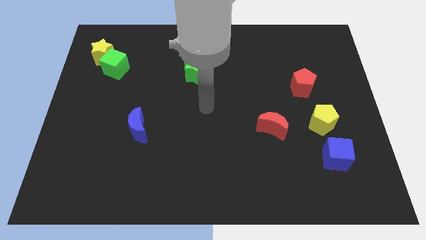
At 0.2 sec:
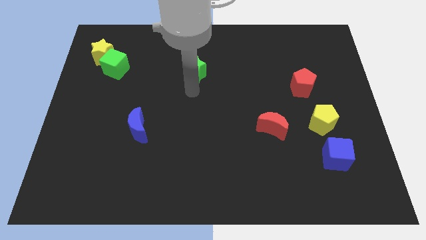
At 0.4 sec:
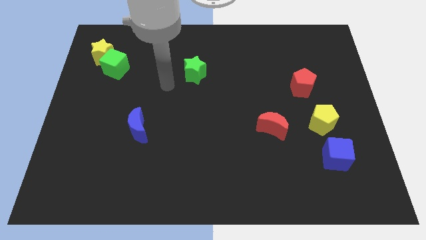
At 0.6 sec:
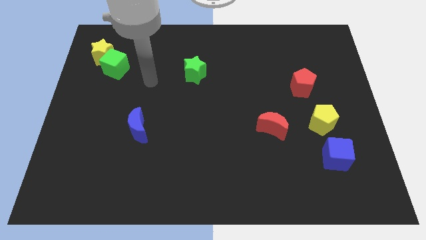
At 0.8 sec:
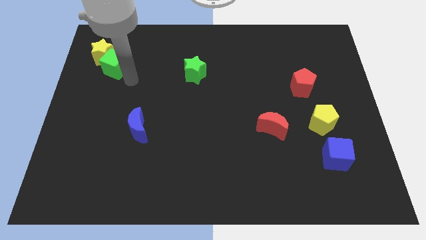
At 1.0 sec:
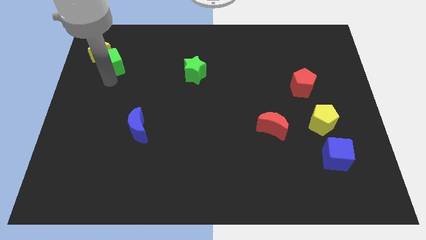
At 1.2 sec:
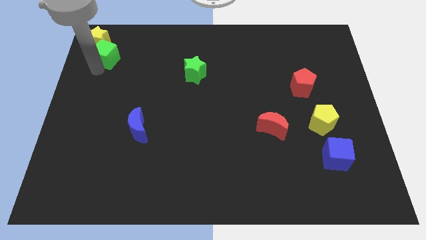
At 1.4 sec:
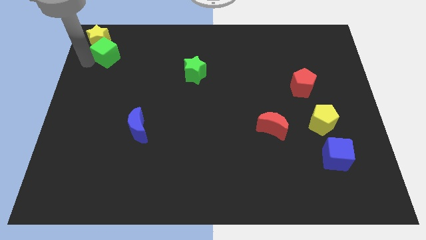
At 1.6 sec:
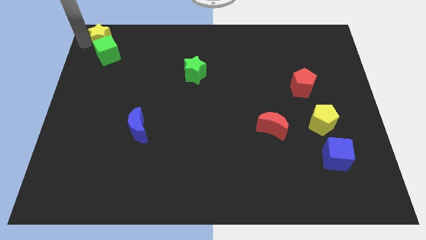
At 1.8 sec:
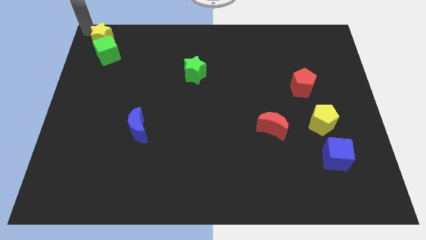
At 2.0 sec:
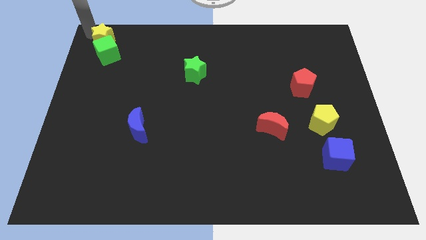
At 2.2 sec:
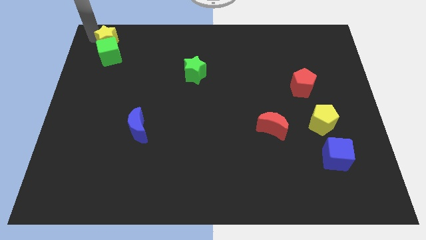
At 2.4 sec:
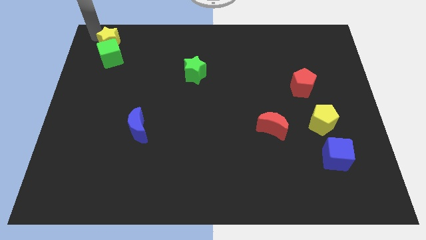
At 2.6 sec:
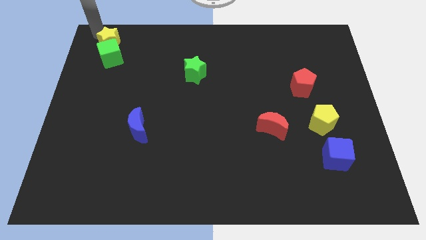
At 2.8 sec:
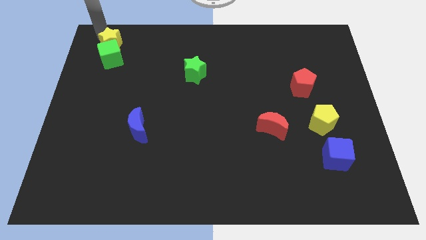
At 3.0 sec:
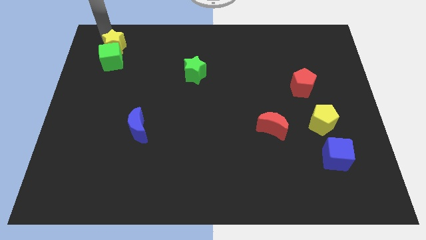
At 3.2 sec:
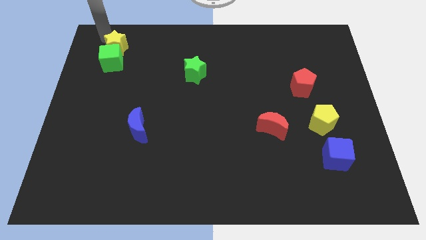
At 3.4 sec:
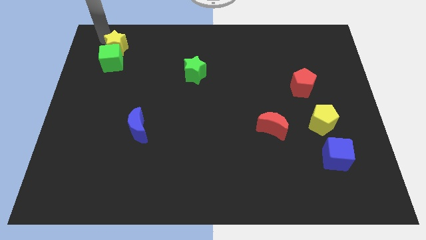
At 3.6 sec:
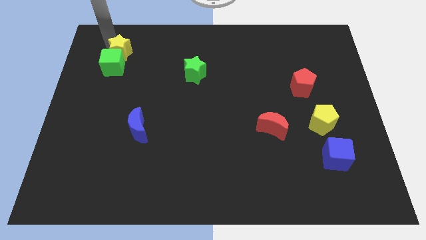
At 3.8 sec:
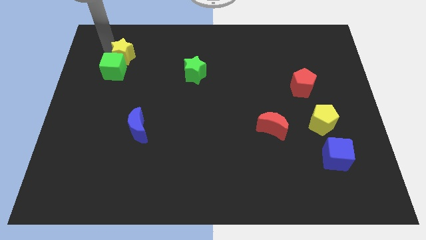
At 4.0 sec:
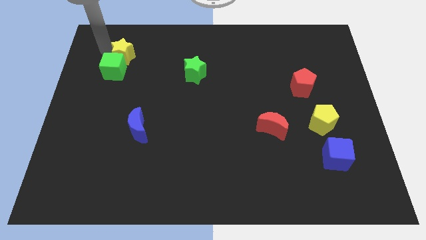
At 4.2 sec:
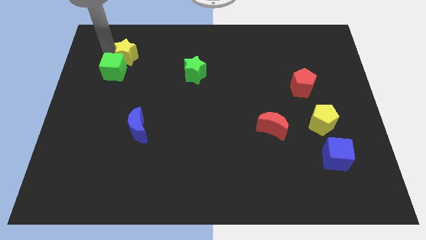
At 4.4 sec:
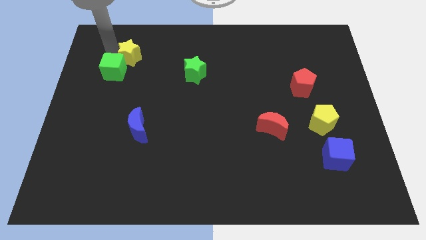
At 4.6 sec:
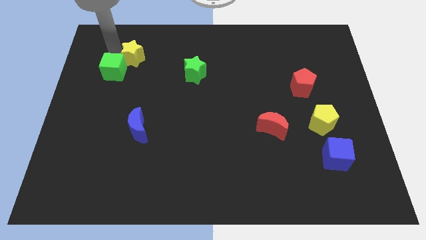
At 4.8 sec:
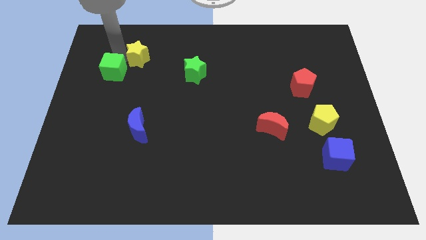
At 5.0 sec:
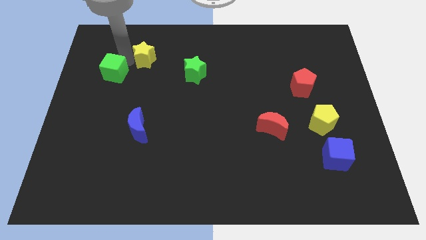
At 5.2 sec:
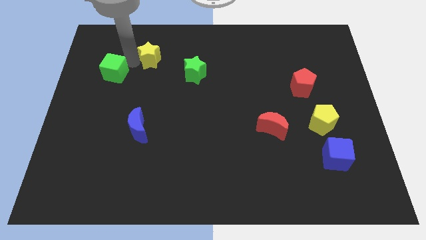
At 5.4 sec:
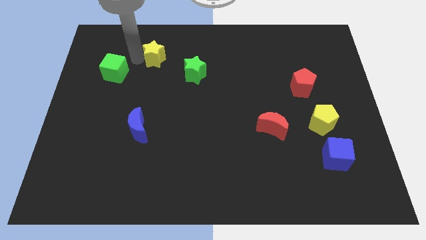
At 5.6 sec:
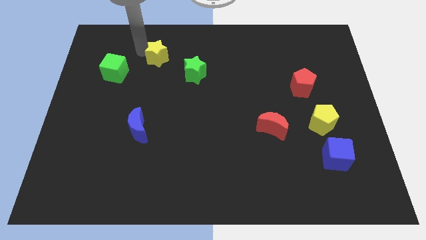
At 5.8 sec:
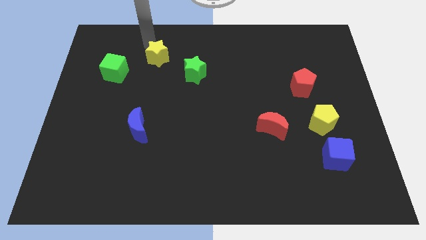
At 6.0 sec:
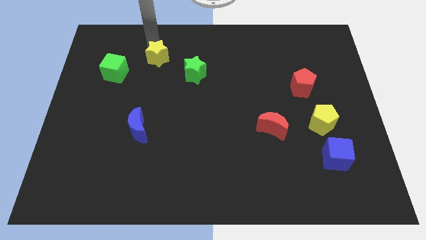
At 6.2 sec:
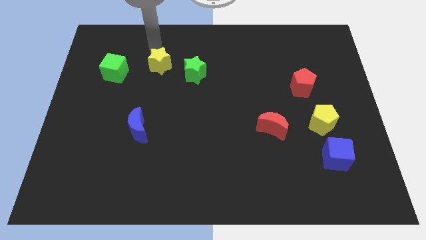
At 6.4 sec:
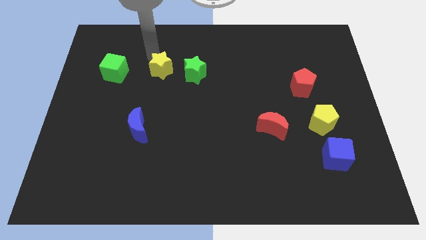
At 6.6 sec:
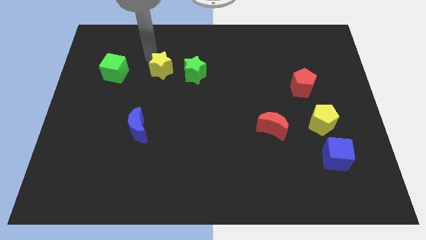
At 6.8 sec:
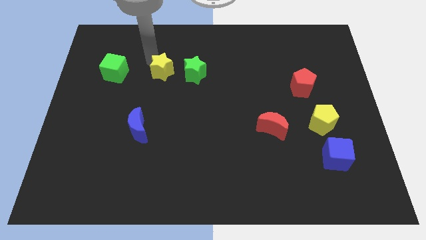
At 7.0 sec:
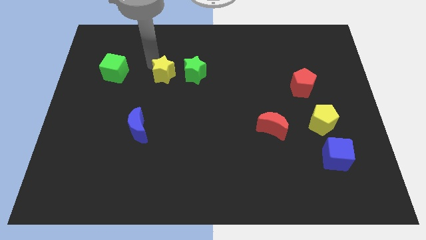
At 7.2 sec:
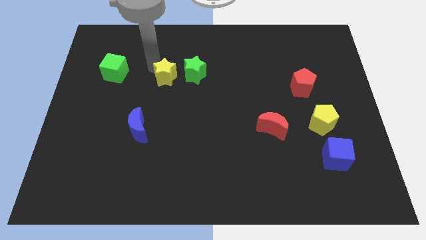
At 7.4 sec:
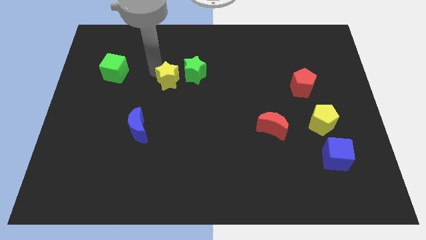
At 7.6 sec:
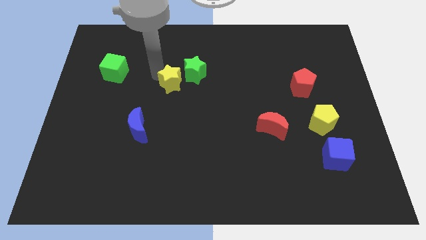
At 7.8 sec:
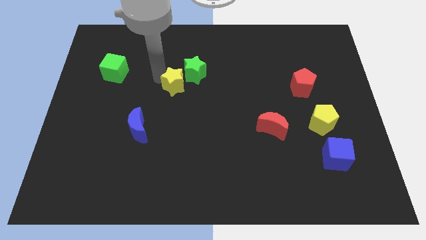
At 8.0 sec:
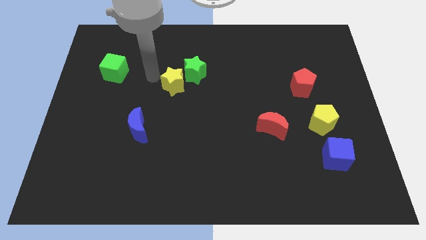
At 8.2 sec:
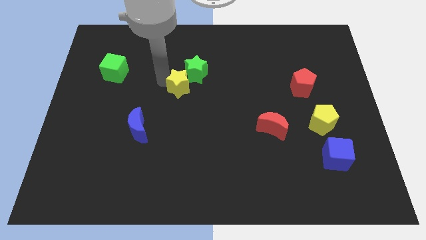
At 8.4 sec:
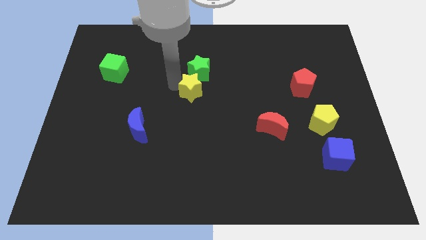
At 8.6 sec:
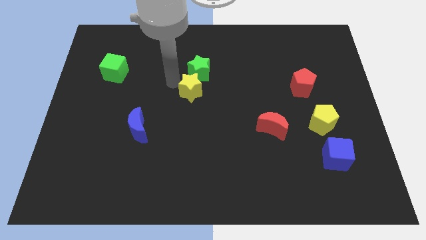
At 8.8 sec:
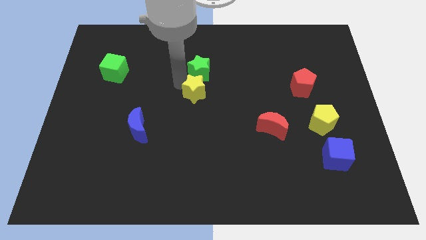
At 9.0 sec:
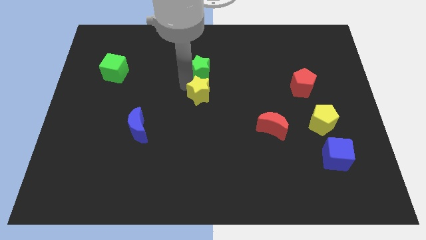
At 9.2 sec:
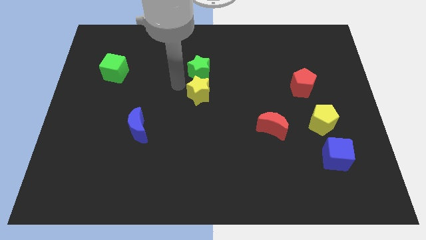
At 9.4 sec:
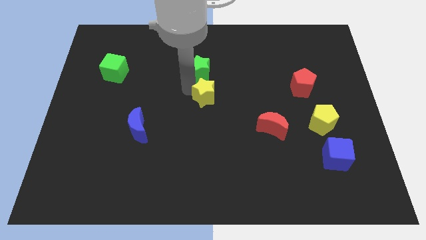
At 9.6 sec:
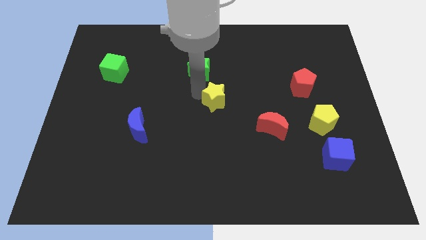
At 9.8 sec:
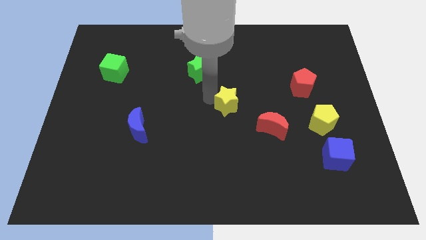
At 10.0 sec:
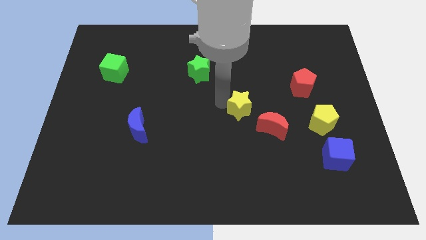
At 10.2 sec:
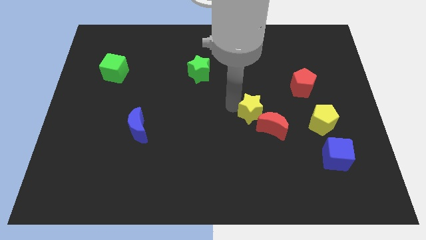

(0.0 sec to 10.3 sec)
slide the yellow star next to the red moon

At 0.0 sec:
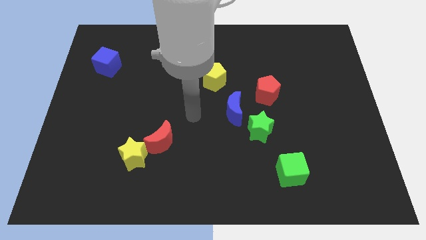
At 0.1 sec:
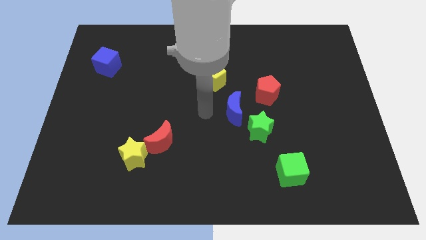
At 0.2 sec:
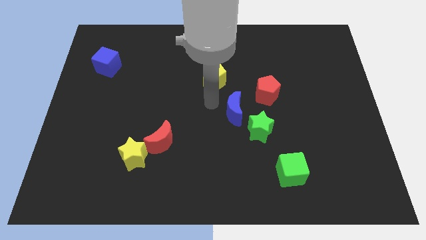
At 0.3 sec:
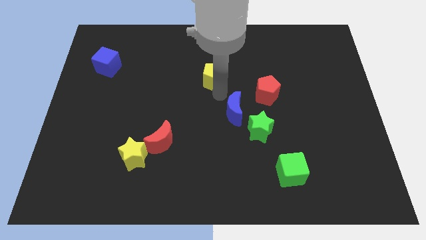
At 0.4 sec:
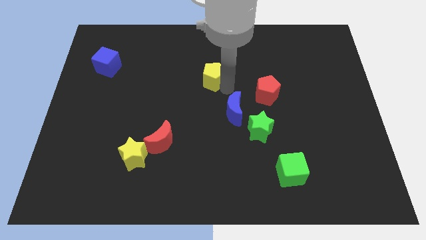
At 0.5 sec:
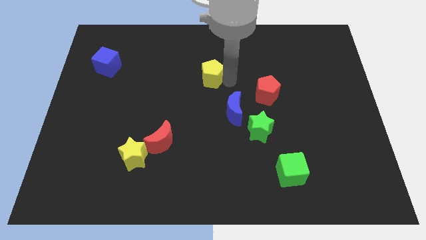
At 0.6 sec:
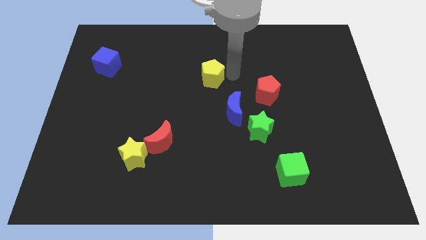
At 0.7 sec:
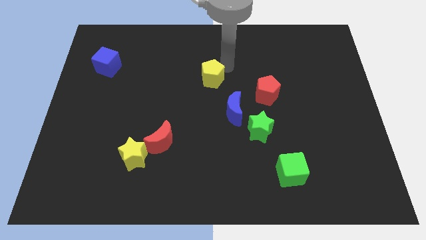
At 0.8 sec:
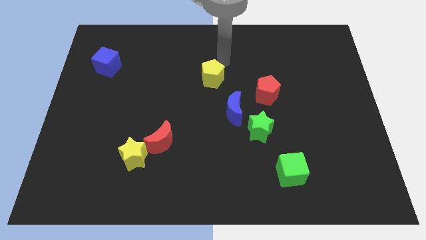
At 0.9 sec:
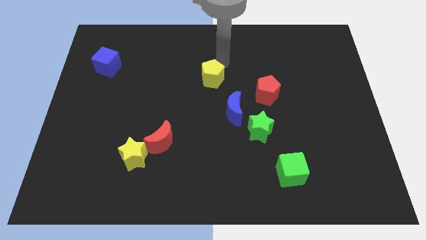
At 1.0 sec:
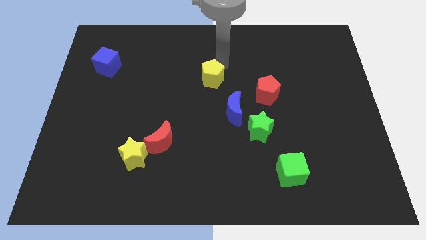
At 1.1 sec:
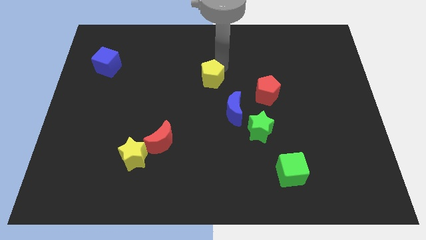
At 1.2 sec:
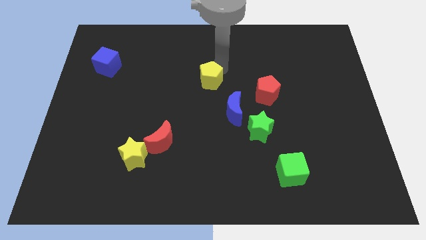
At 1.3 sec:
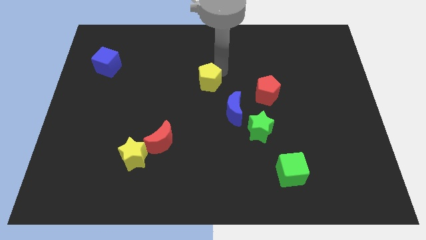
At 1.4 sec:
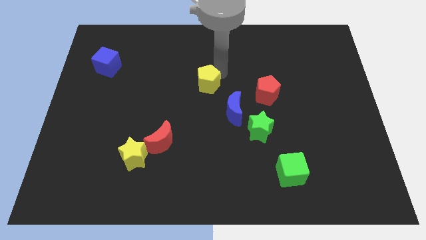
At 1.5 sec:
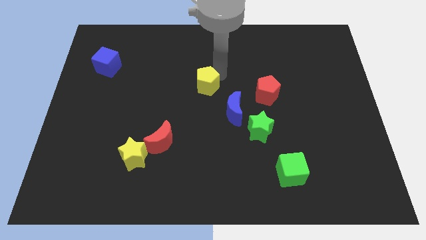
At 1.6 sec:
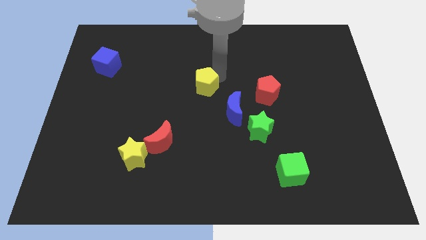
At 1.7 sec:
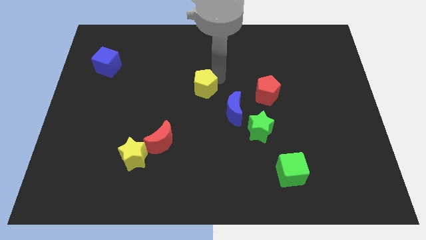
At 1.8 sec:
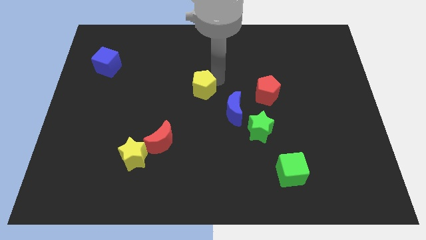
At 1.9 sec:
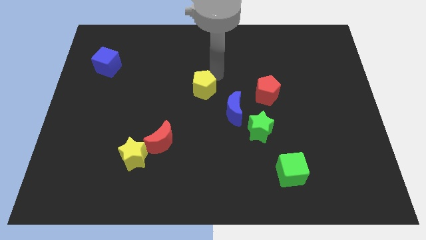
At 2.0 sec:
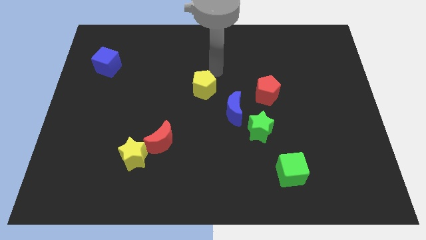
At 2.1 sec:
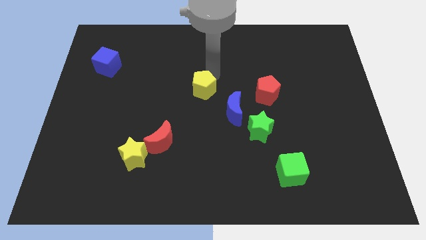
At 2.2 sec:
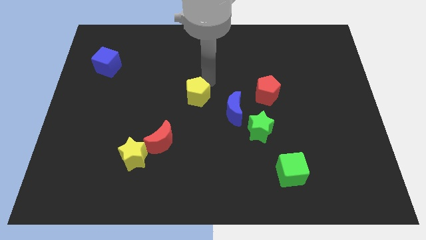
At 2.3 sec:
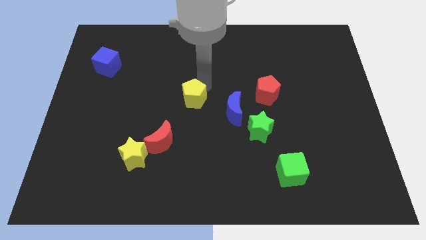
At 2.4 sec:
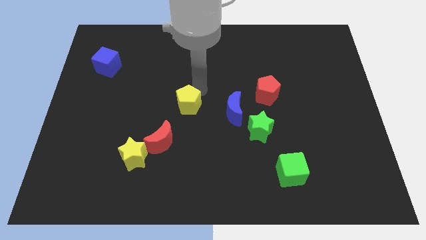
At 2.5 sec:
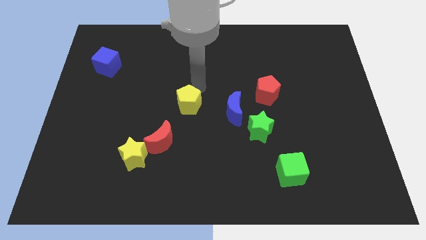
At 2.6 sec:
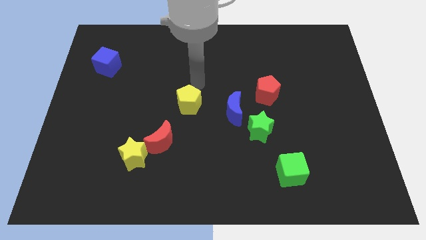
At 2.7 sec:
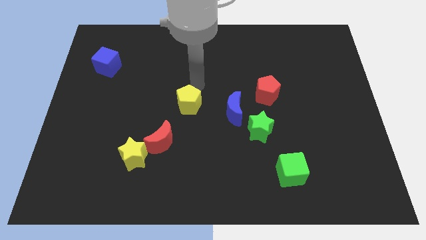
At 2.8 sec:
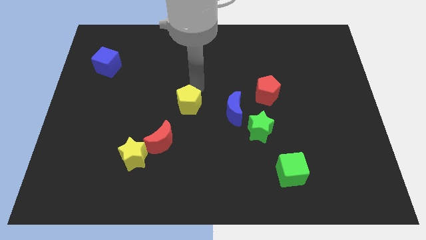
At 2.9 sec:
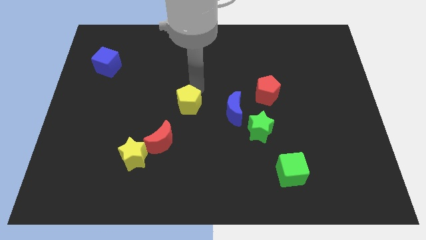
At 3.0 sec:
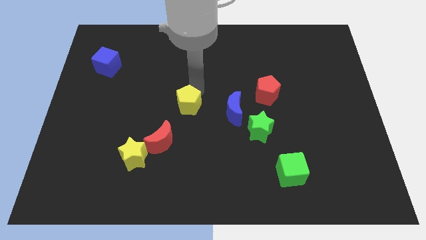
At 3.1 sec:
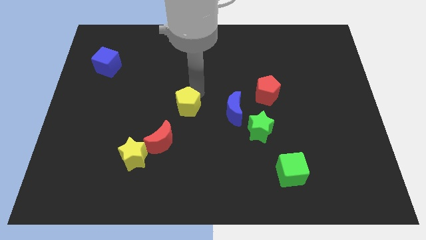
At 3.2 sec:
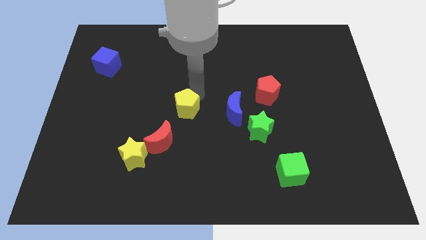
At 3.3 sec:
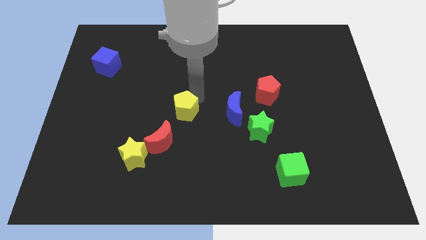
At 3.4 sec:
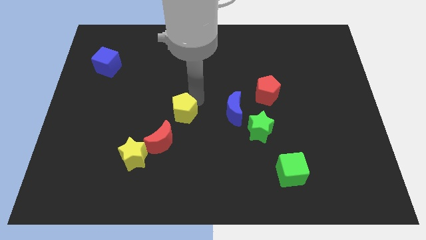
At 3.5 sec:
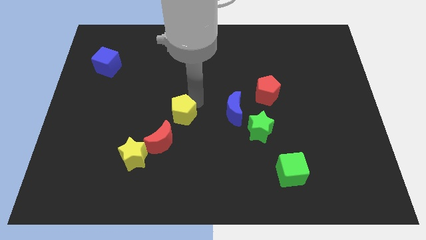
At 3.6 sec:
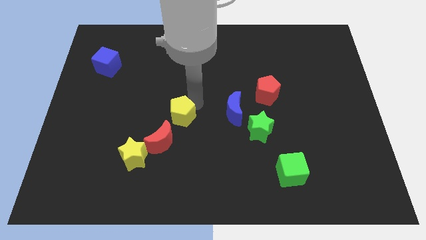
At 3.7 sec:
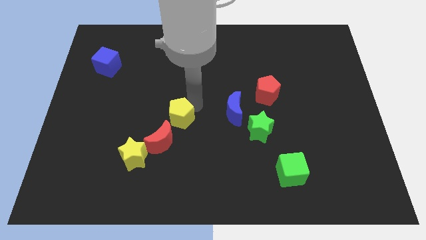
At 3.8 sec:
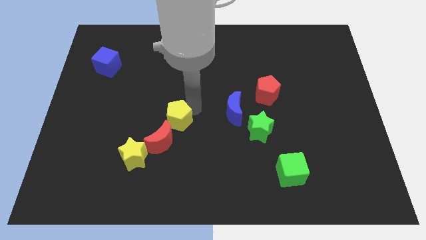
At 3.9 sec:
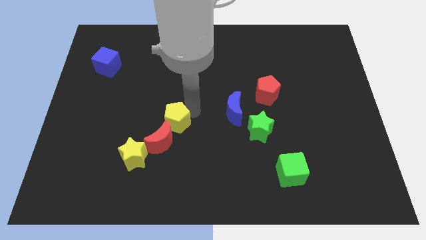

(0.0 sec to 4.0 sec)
move the yellow pentagon to the red moon
